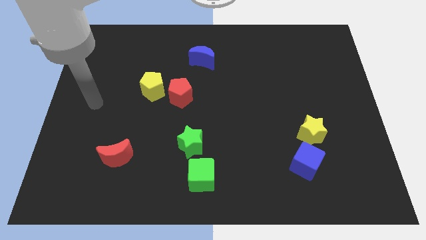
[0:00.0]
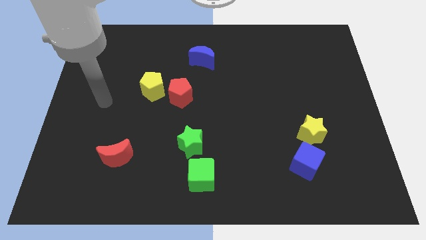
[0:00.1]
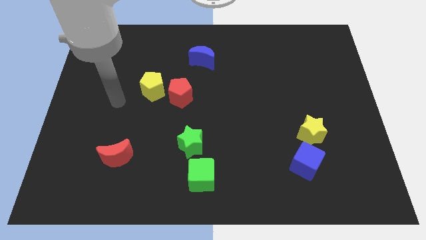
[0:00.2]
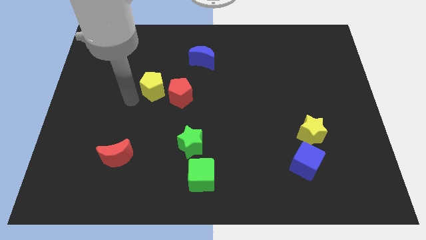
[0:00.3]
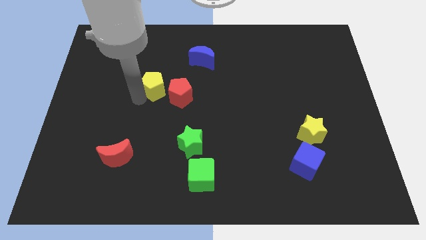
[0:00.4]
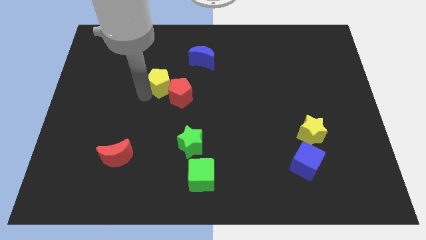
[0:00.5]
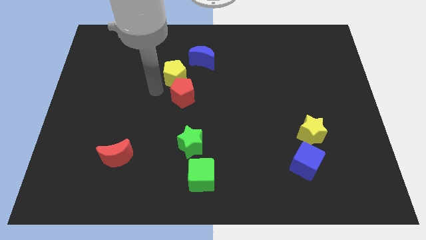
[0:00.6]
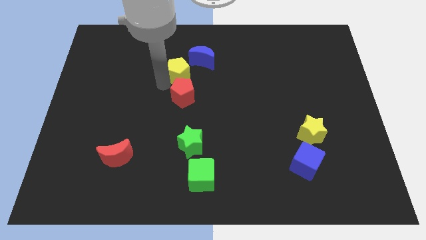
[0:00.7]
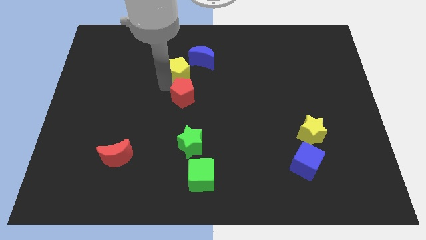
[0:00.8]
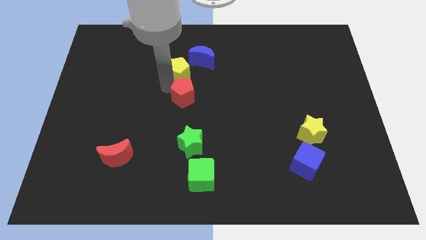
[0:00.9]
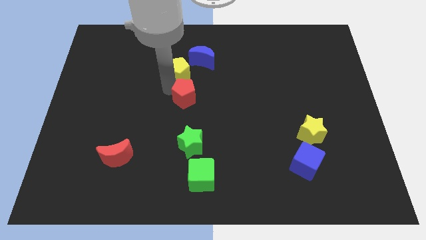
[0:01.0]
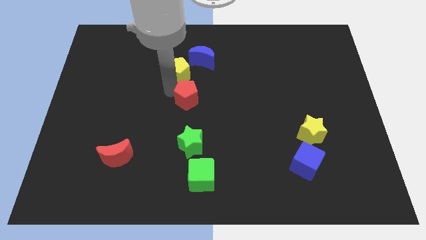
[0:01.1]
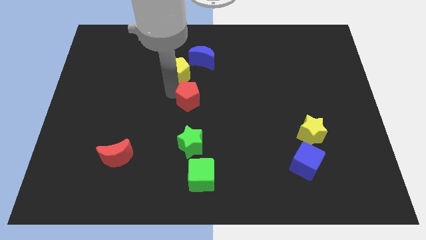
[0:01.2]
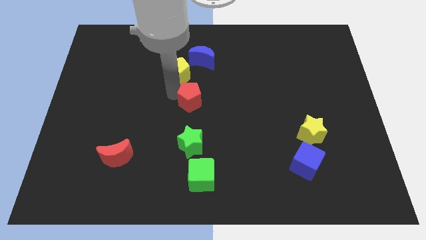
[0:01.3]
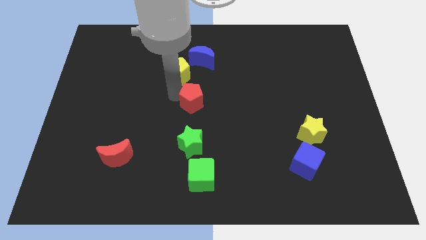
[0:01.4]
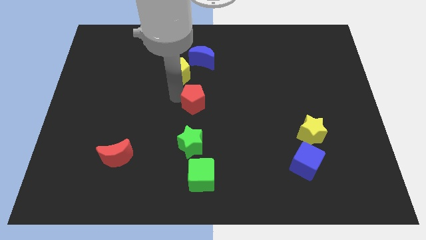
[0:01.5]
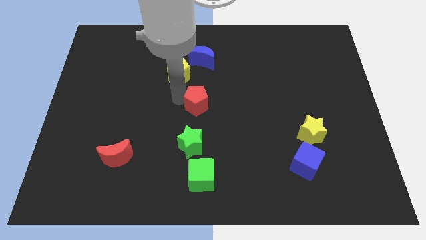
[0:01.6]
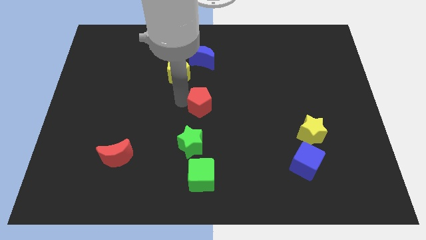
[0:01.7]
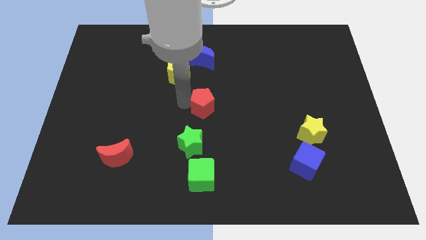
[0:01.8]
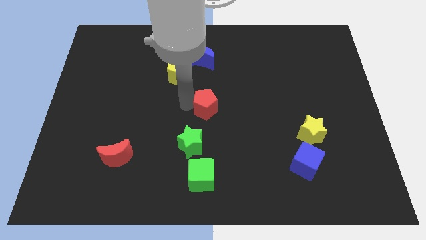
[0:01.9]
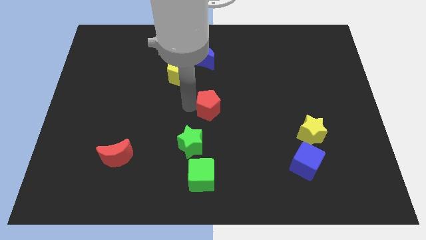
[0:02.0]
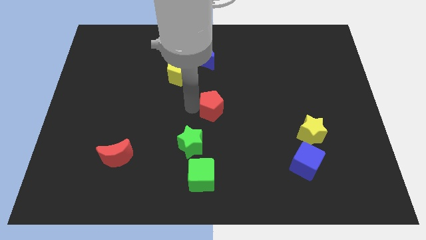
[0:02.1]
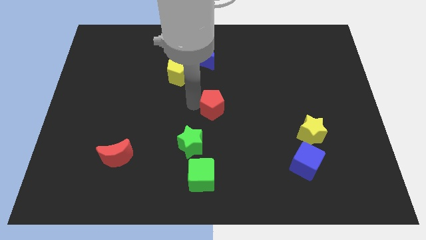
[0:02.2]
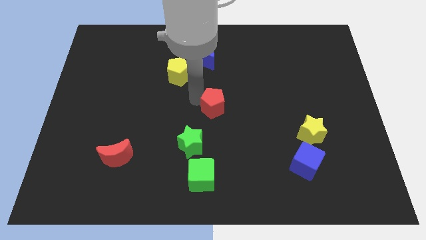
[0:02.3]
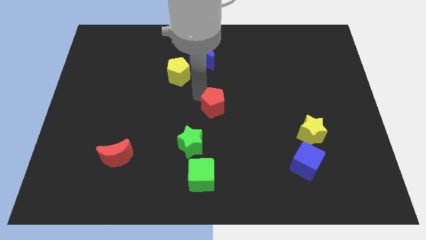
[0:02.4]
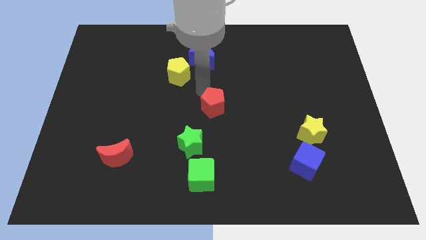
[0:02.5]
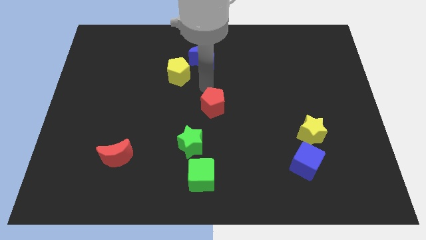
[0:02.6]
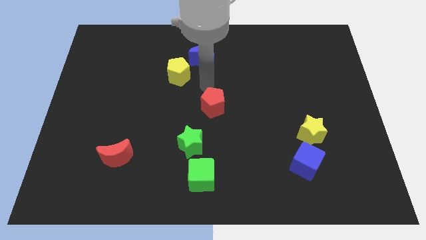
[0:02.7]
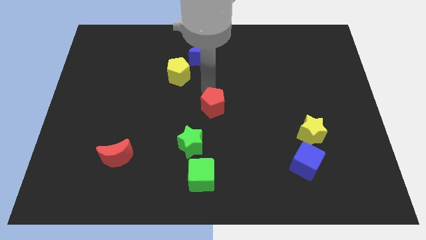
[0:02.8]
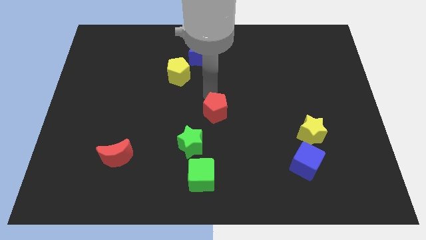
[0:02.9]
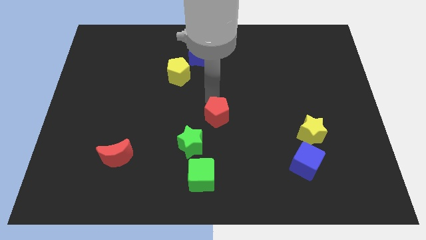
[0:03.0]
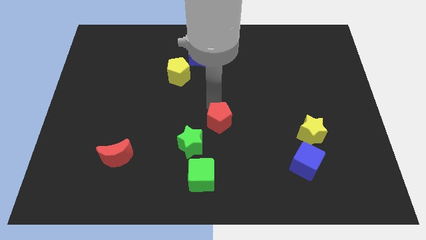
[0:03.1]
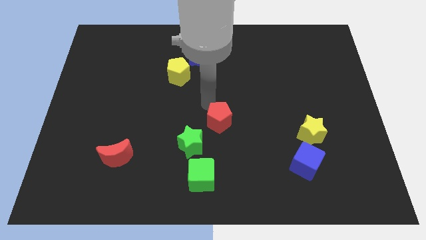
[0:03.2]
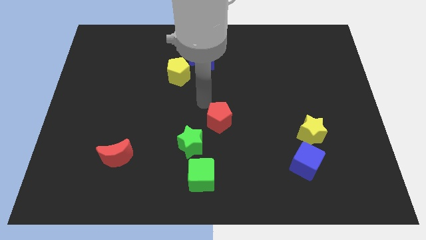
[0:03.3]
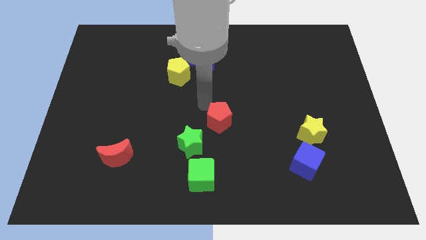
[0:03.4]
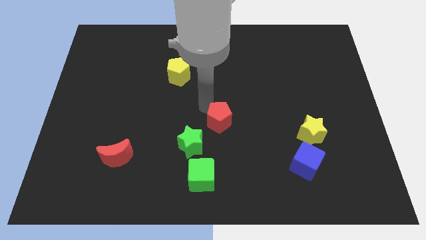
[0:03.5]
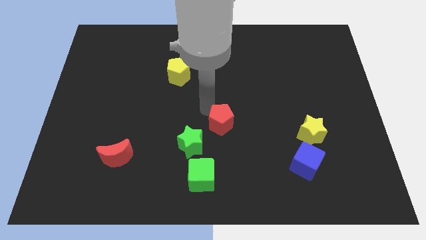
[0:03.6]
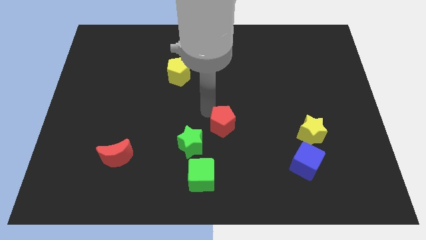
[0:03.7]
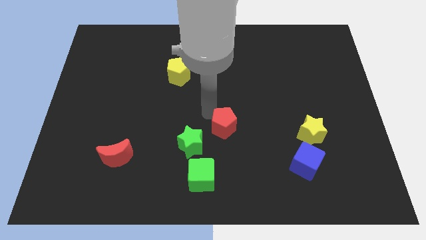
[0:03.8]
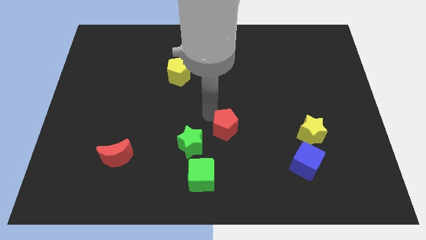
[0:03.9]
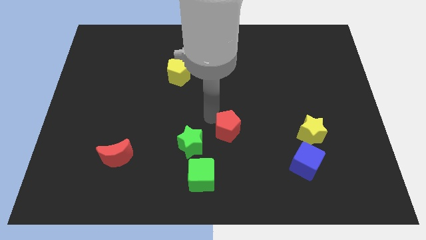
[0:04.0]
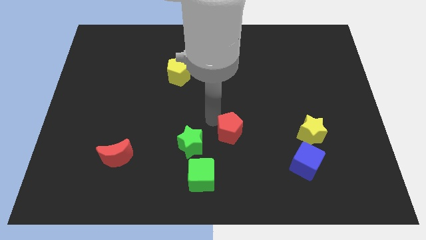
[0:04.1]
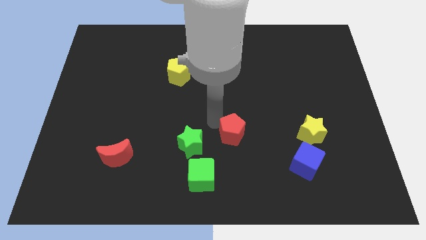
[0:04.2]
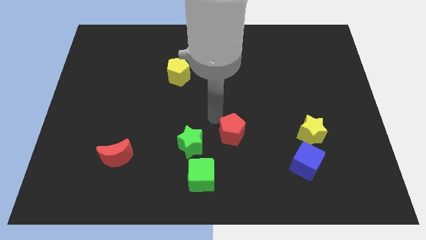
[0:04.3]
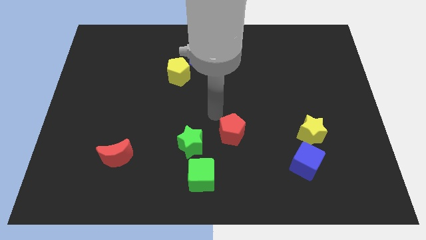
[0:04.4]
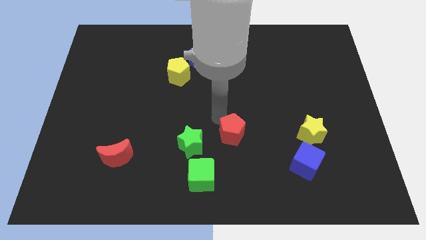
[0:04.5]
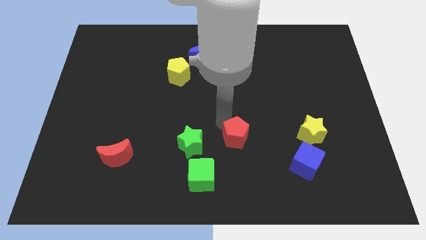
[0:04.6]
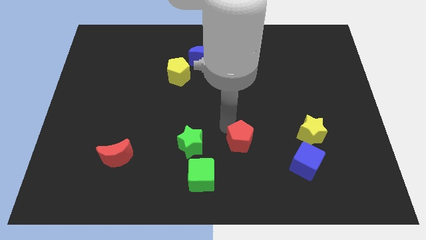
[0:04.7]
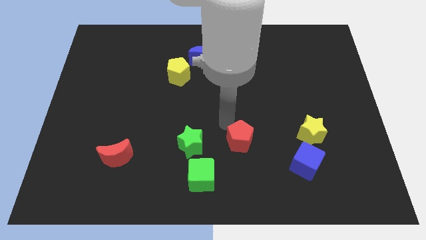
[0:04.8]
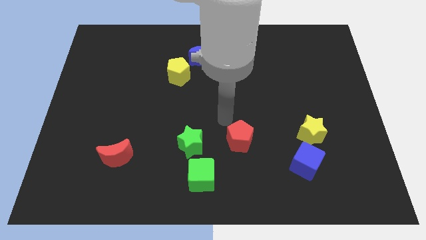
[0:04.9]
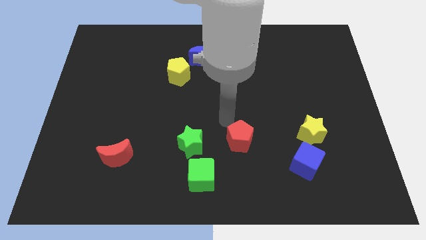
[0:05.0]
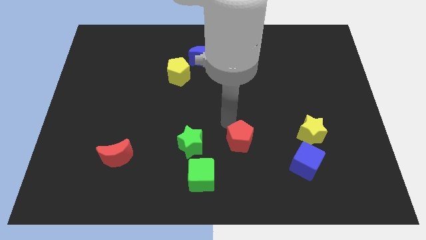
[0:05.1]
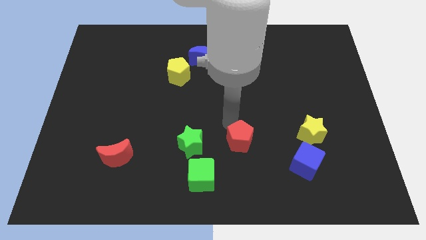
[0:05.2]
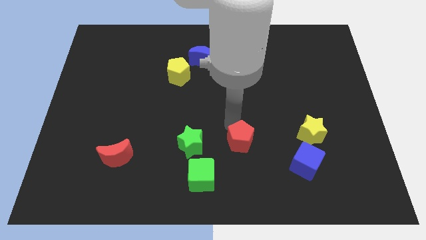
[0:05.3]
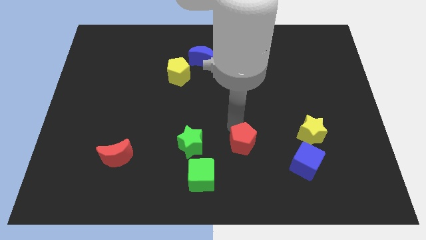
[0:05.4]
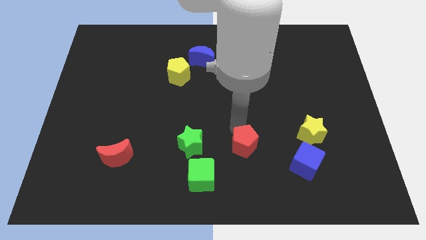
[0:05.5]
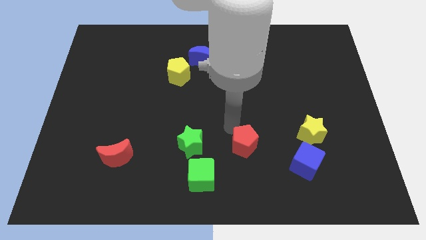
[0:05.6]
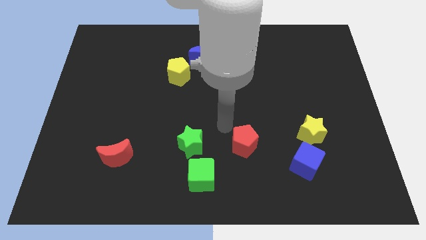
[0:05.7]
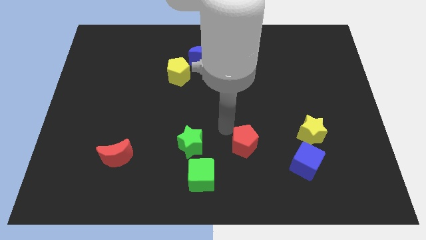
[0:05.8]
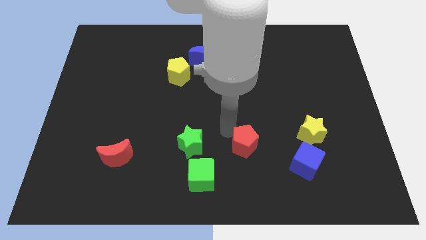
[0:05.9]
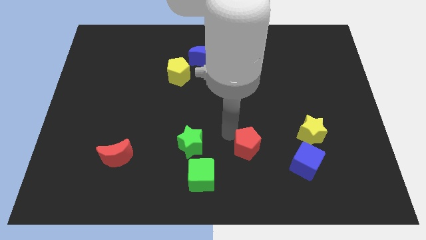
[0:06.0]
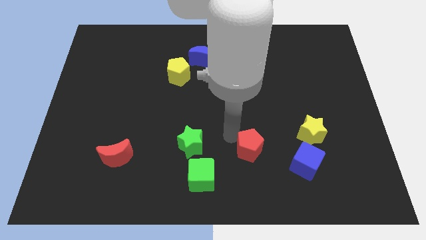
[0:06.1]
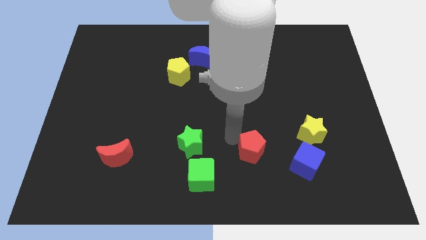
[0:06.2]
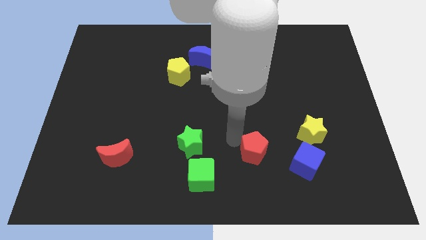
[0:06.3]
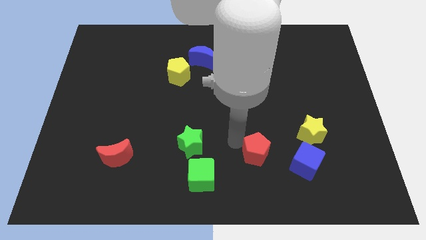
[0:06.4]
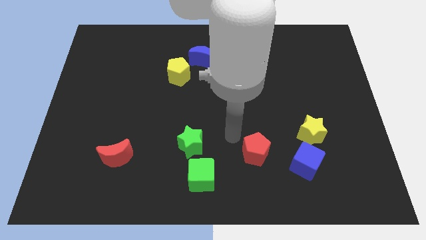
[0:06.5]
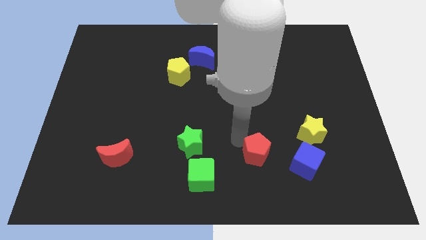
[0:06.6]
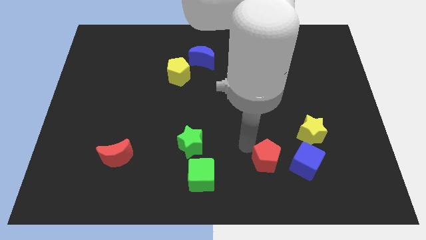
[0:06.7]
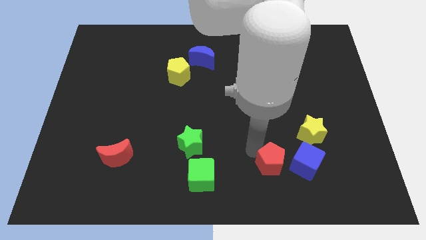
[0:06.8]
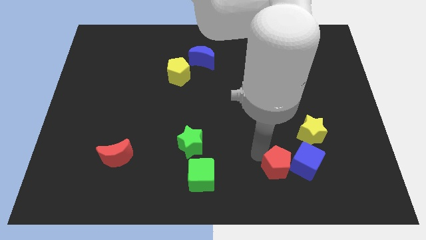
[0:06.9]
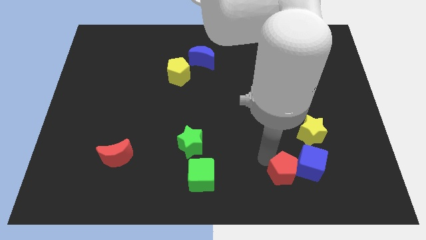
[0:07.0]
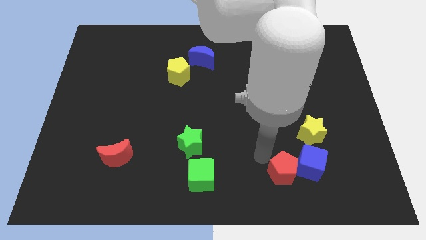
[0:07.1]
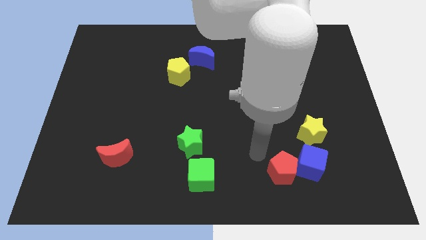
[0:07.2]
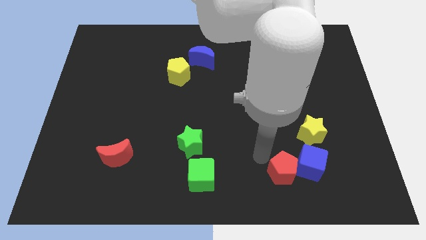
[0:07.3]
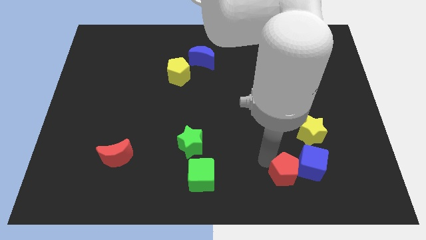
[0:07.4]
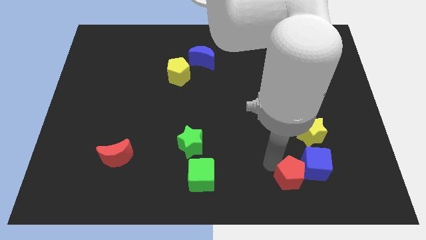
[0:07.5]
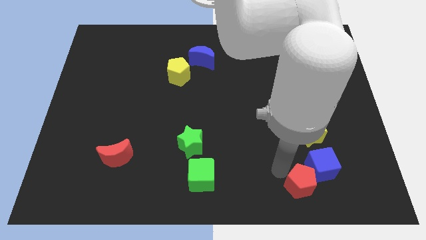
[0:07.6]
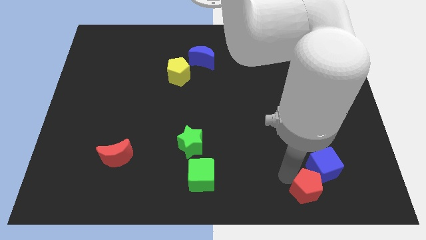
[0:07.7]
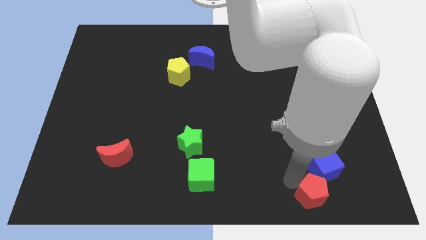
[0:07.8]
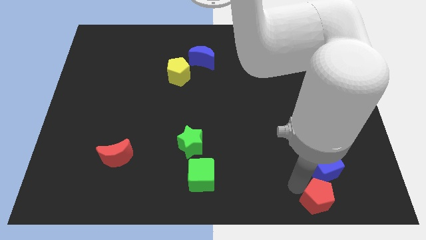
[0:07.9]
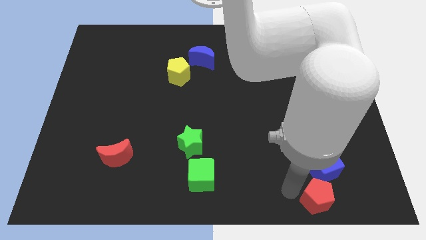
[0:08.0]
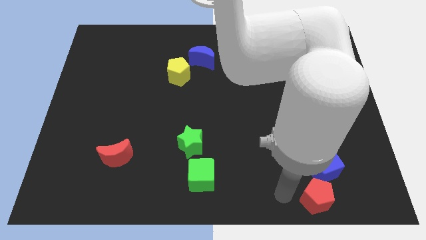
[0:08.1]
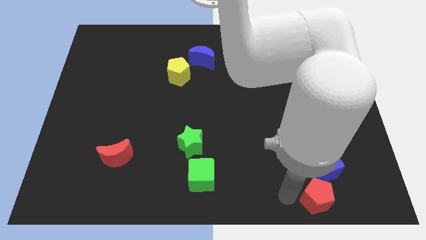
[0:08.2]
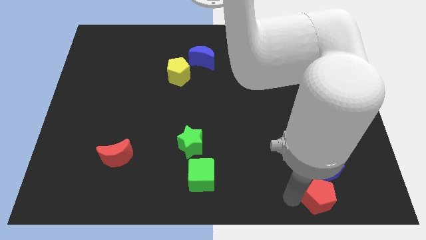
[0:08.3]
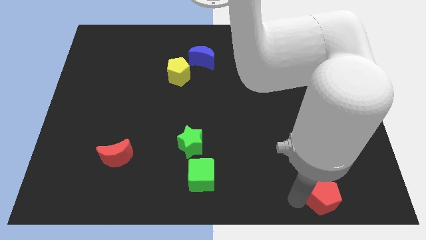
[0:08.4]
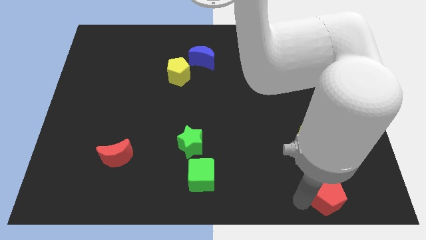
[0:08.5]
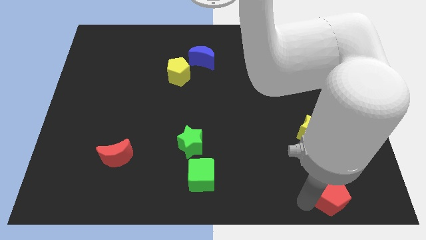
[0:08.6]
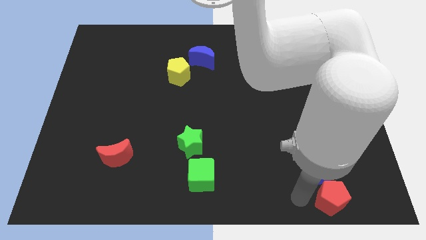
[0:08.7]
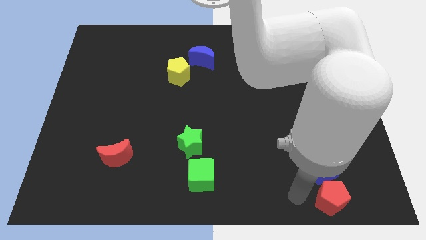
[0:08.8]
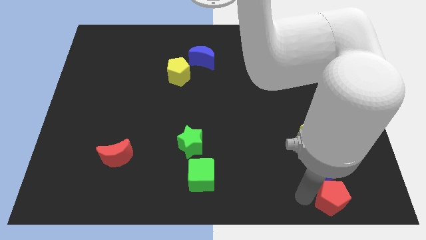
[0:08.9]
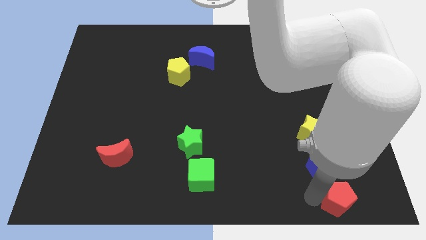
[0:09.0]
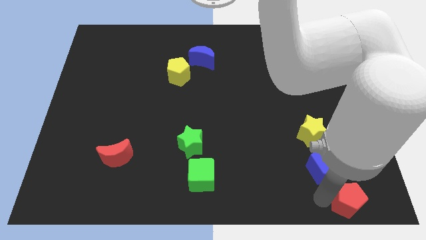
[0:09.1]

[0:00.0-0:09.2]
move the red pentagon to the bottom right
